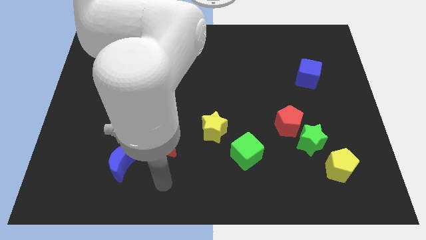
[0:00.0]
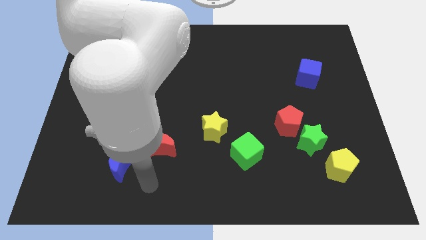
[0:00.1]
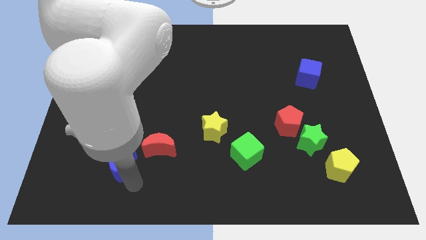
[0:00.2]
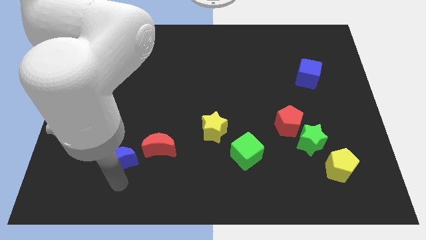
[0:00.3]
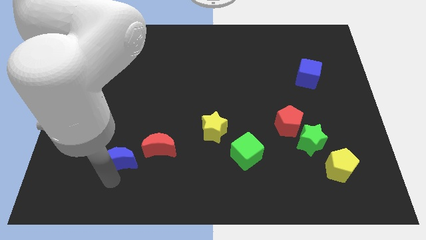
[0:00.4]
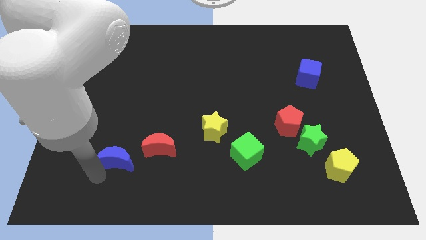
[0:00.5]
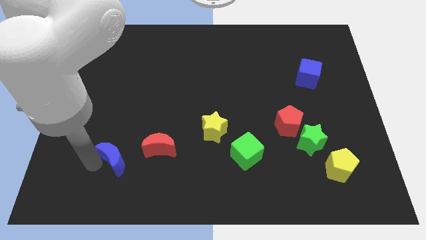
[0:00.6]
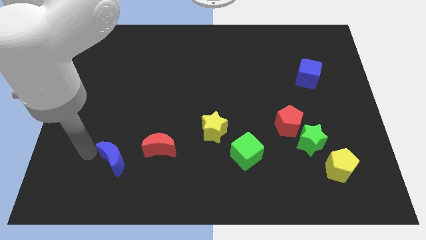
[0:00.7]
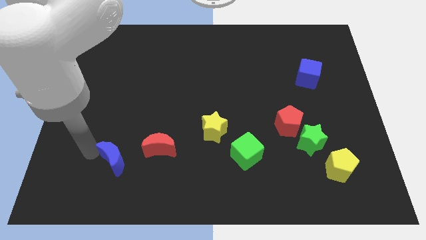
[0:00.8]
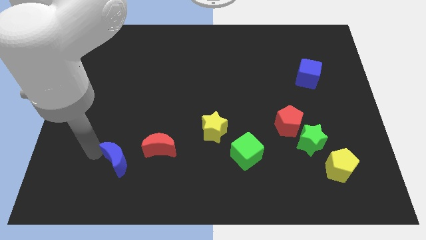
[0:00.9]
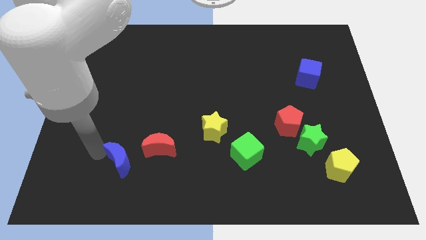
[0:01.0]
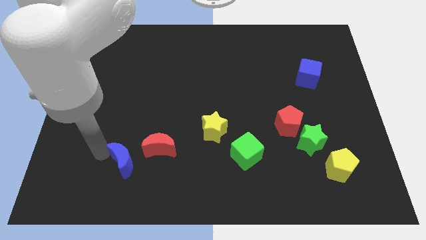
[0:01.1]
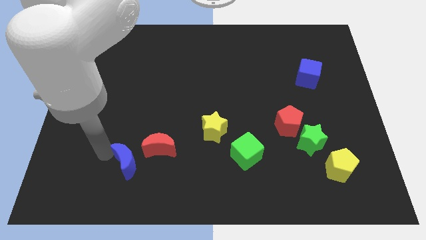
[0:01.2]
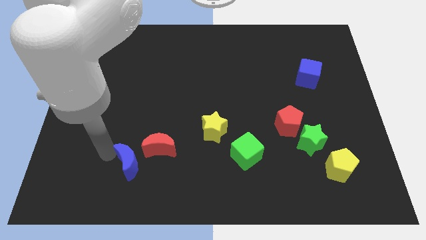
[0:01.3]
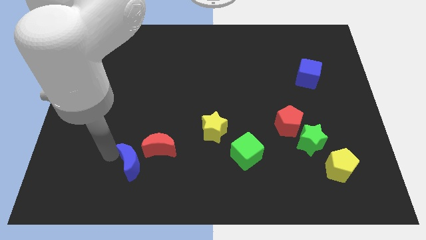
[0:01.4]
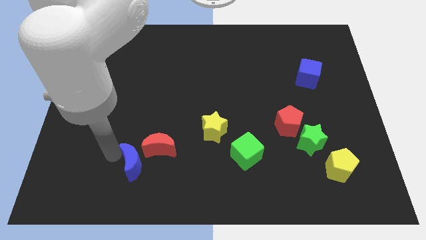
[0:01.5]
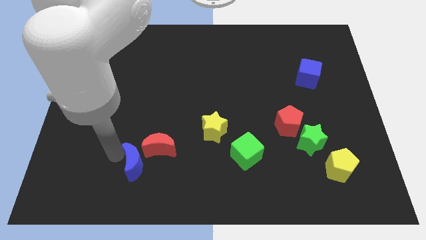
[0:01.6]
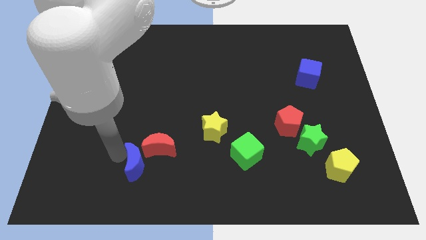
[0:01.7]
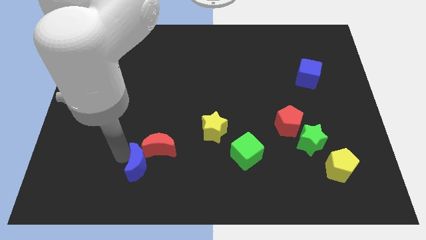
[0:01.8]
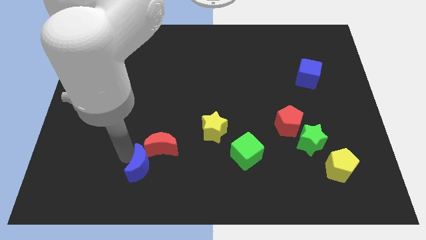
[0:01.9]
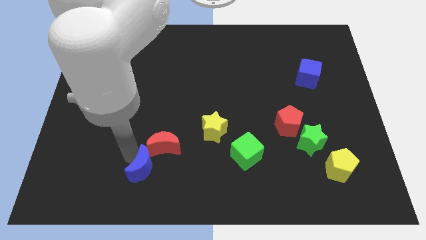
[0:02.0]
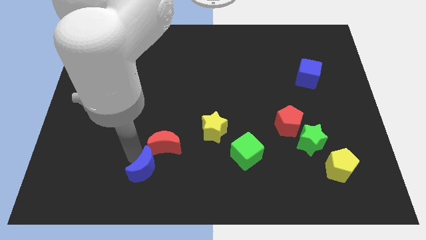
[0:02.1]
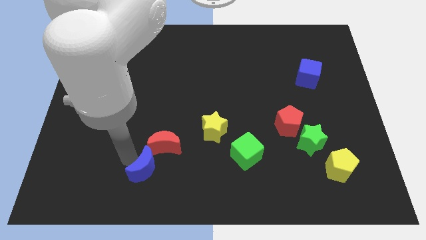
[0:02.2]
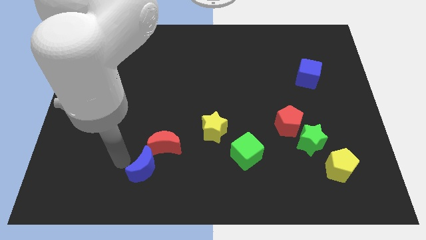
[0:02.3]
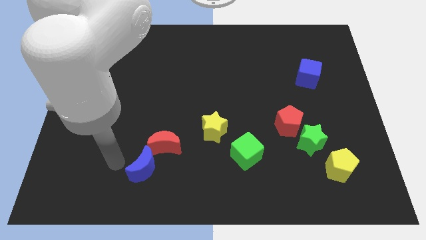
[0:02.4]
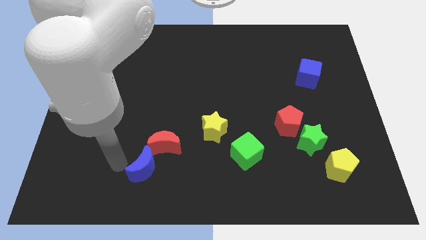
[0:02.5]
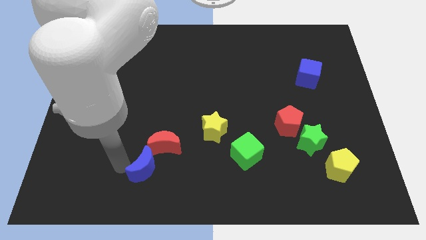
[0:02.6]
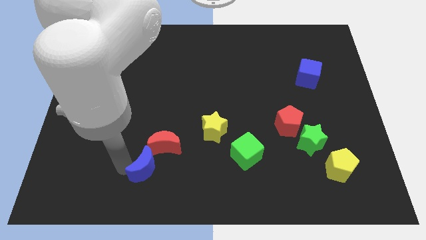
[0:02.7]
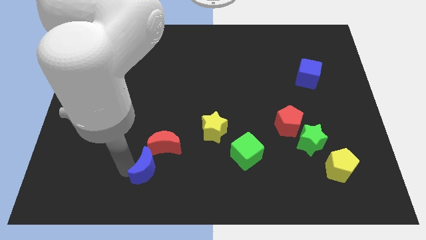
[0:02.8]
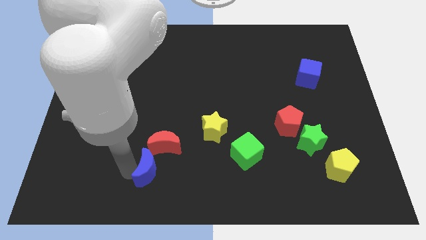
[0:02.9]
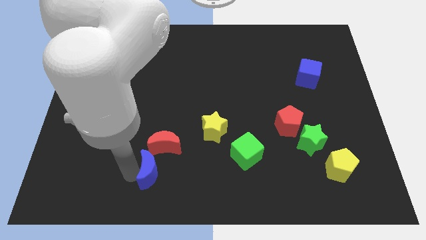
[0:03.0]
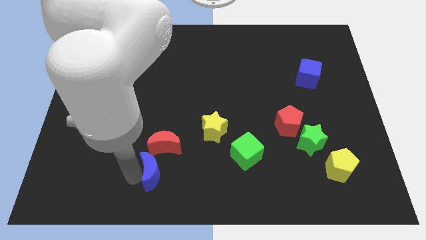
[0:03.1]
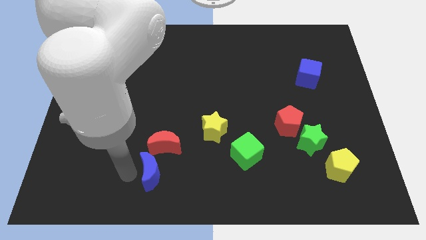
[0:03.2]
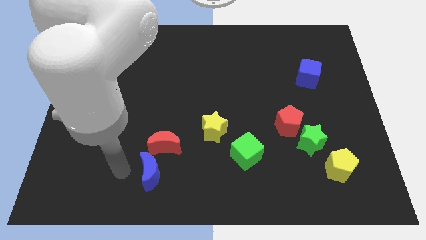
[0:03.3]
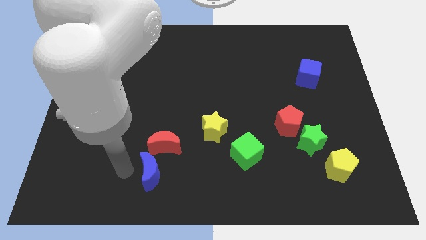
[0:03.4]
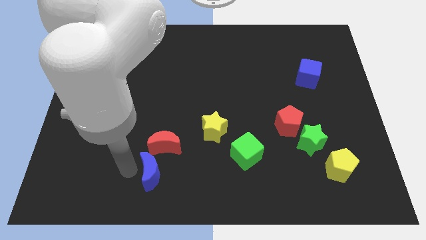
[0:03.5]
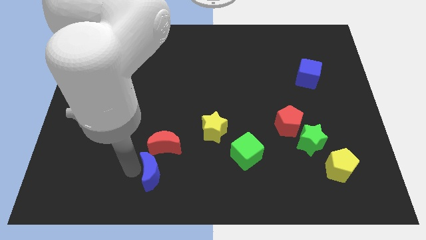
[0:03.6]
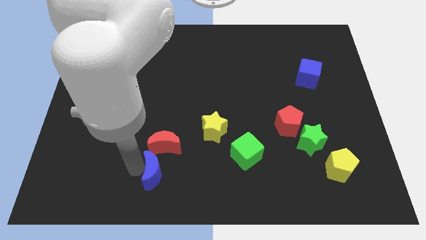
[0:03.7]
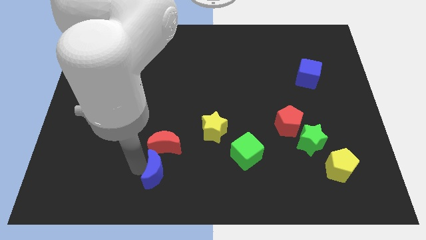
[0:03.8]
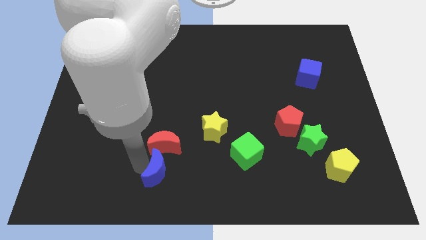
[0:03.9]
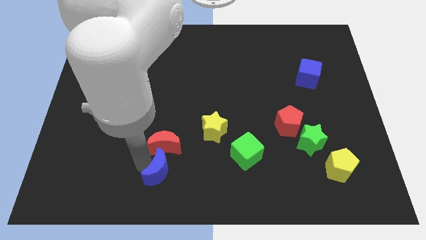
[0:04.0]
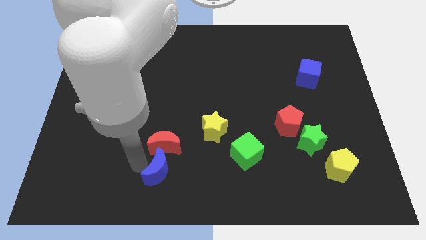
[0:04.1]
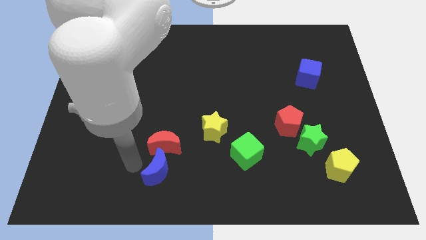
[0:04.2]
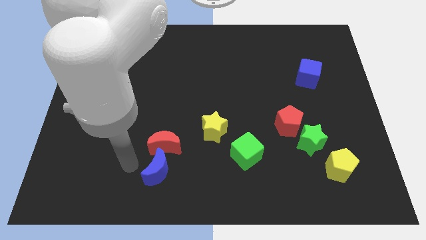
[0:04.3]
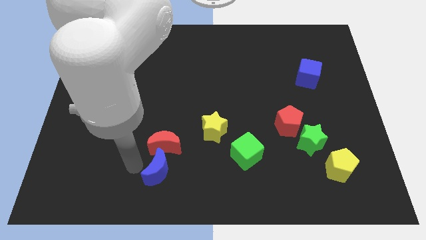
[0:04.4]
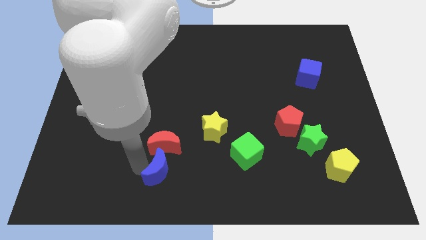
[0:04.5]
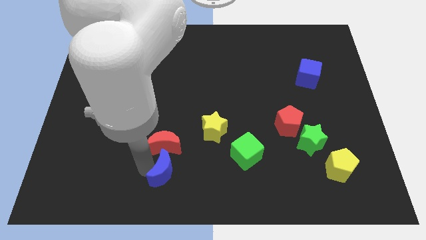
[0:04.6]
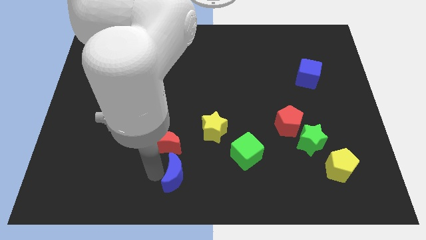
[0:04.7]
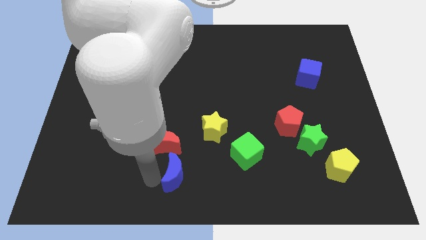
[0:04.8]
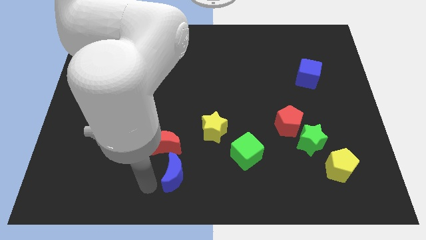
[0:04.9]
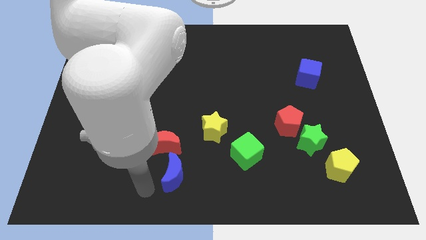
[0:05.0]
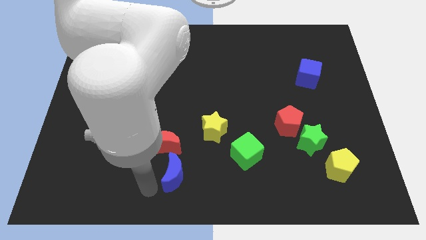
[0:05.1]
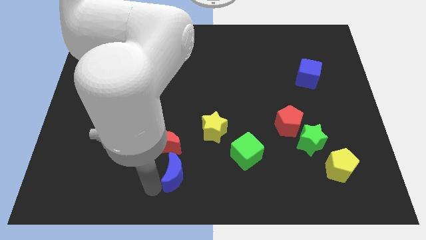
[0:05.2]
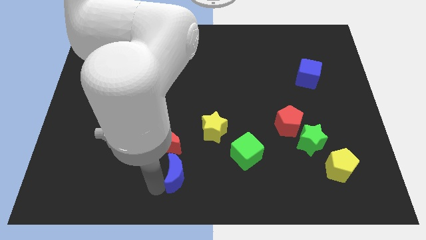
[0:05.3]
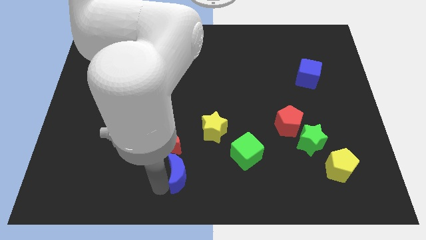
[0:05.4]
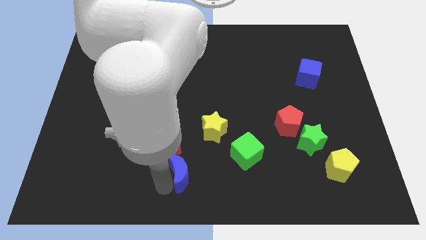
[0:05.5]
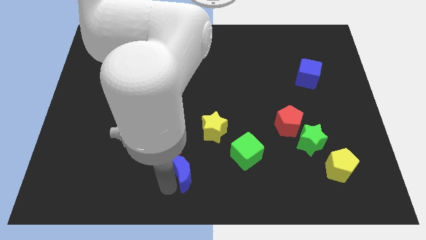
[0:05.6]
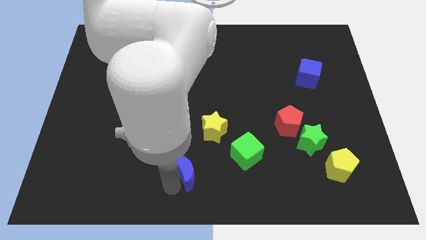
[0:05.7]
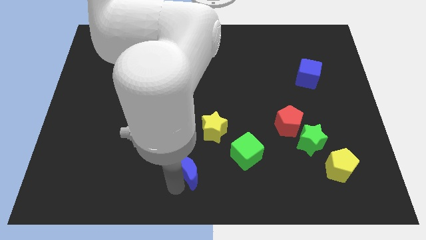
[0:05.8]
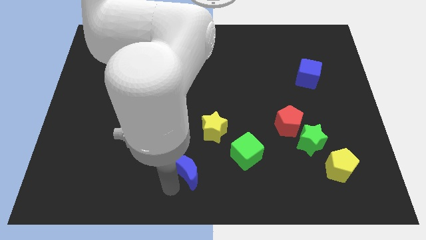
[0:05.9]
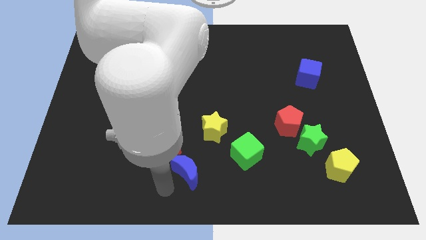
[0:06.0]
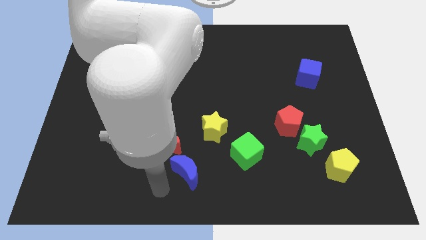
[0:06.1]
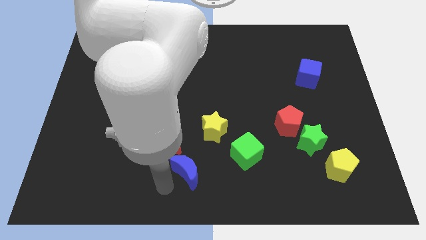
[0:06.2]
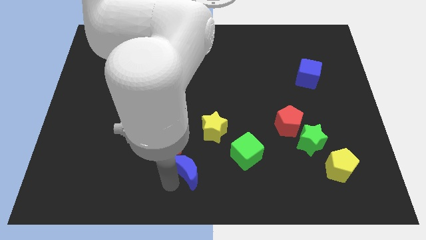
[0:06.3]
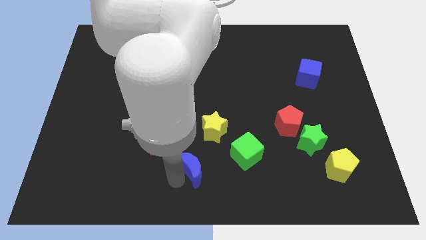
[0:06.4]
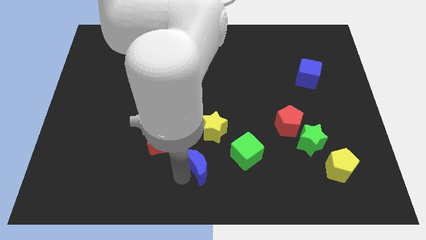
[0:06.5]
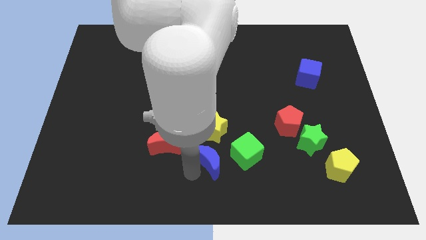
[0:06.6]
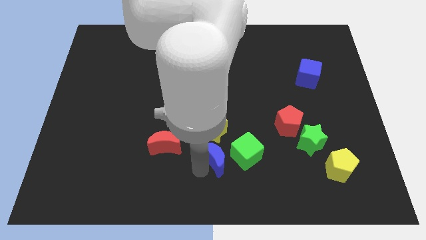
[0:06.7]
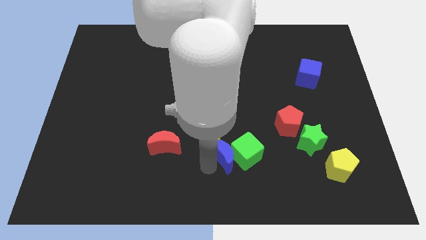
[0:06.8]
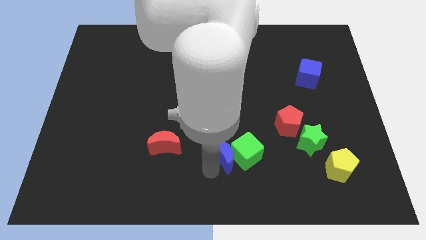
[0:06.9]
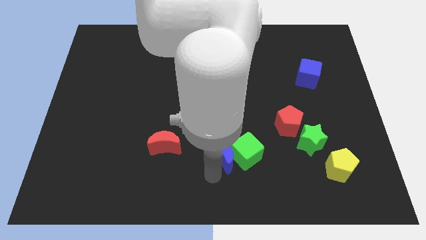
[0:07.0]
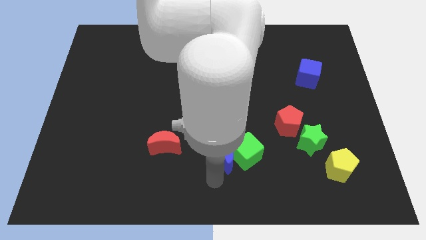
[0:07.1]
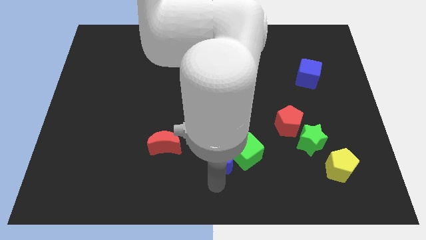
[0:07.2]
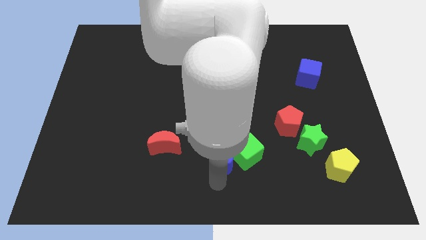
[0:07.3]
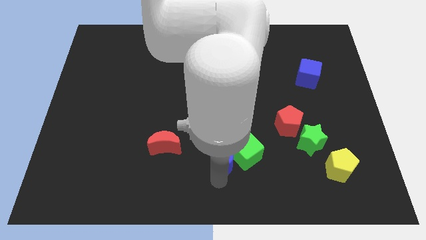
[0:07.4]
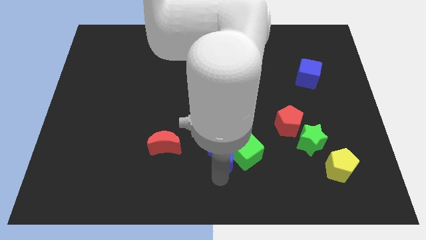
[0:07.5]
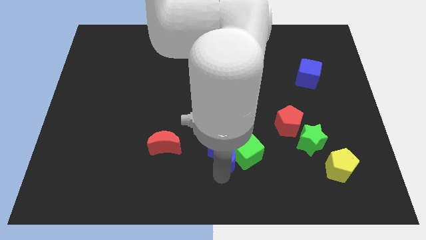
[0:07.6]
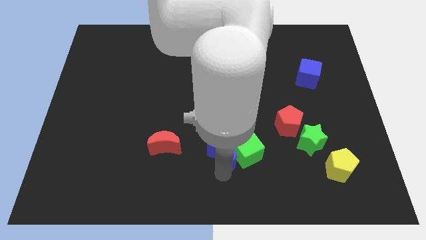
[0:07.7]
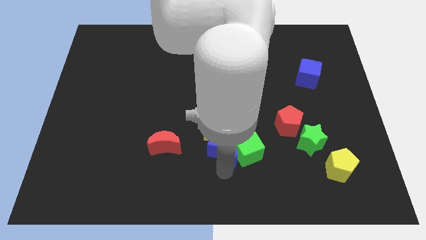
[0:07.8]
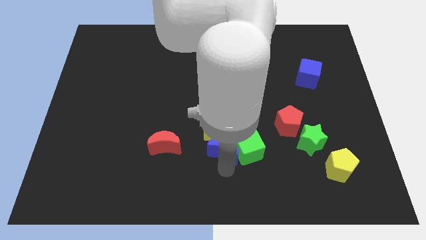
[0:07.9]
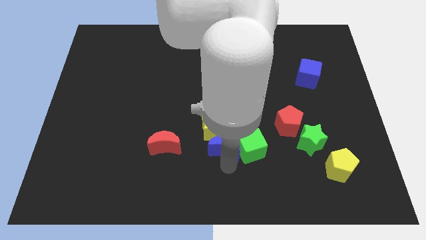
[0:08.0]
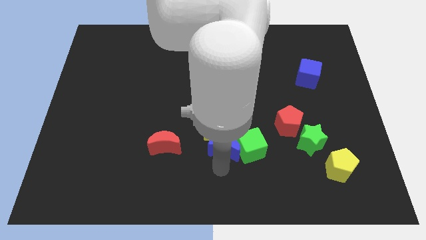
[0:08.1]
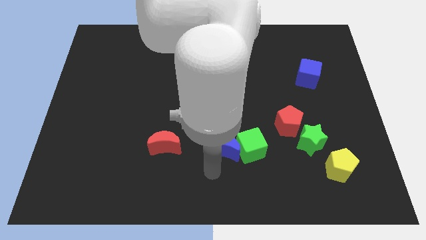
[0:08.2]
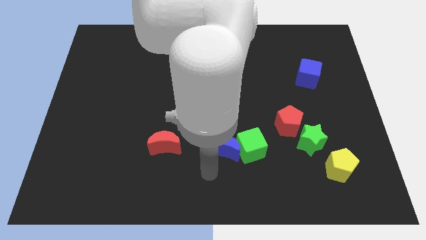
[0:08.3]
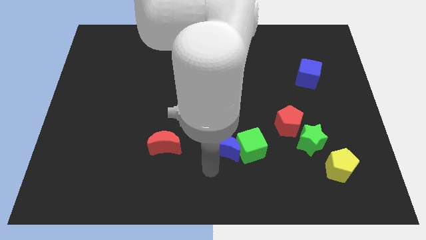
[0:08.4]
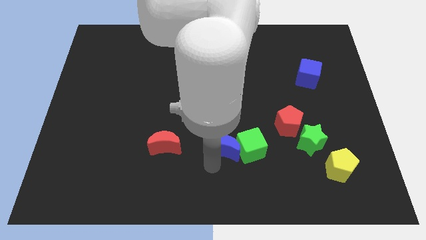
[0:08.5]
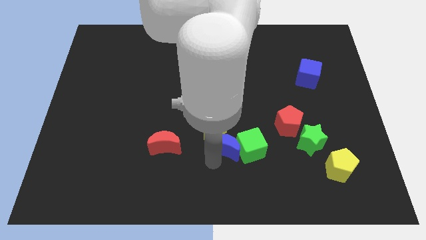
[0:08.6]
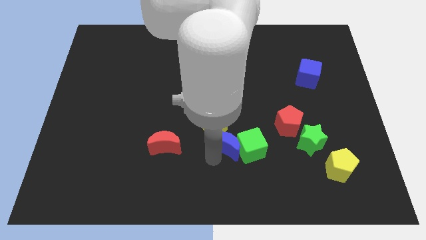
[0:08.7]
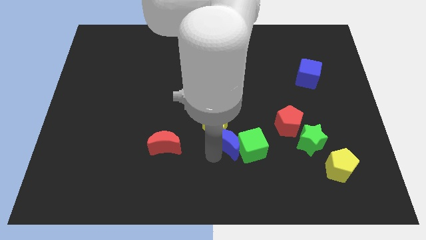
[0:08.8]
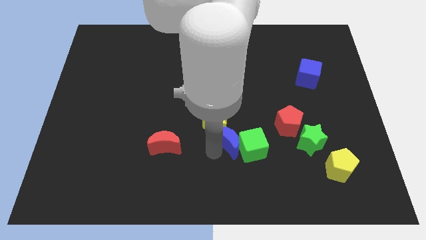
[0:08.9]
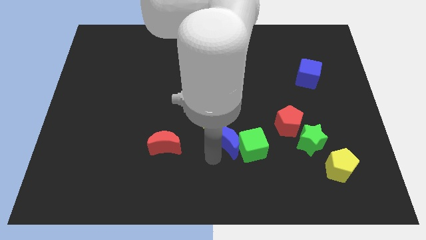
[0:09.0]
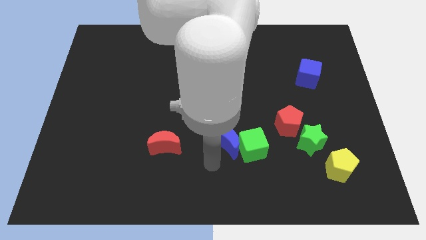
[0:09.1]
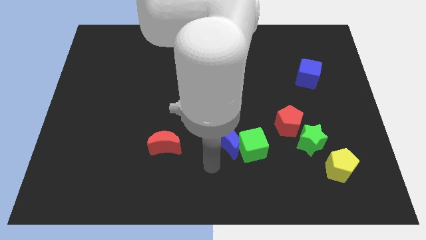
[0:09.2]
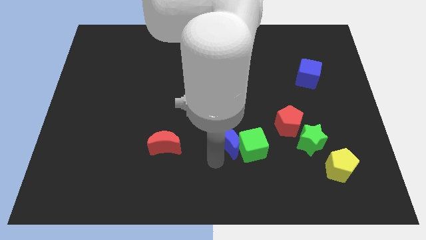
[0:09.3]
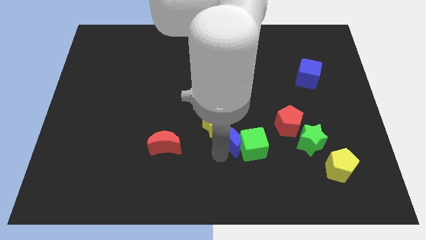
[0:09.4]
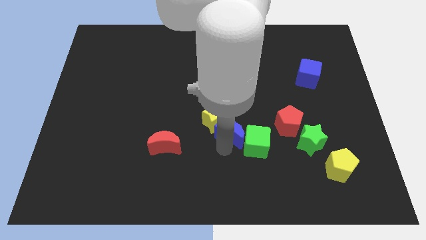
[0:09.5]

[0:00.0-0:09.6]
move the blue moon just left of the red pentagon
